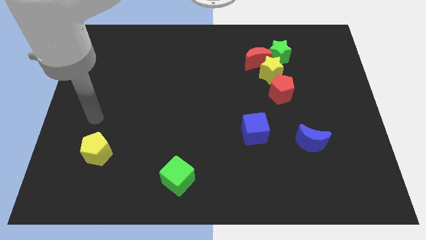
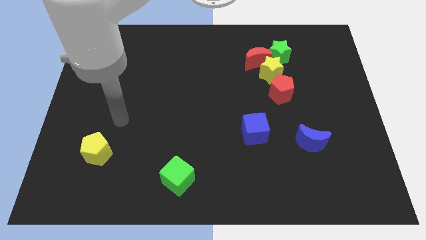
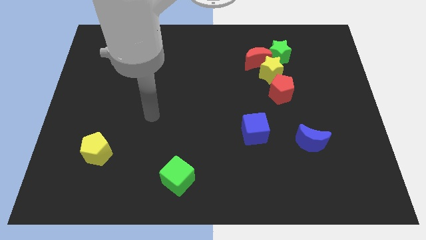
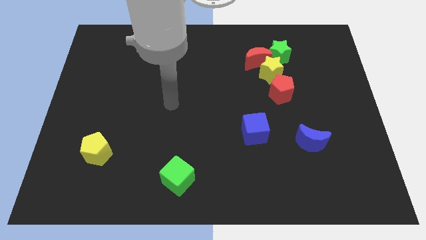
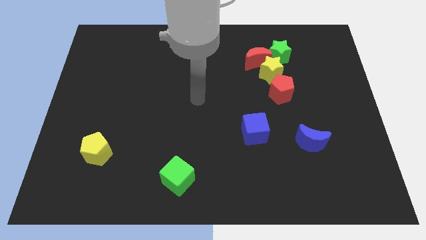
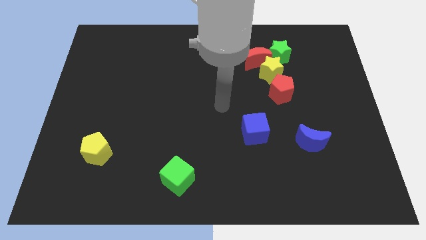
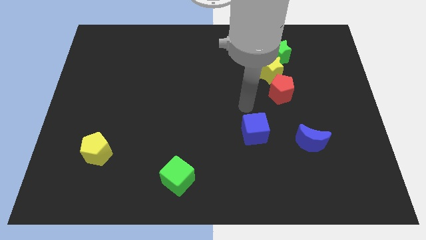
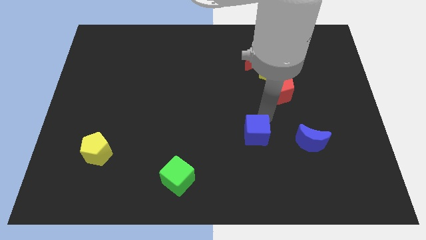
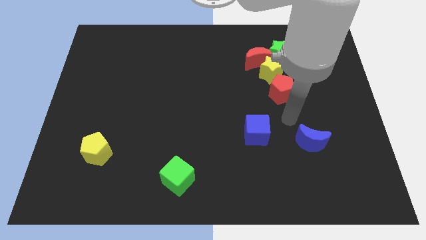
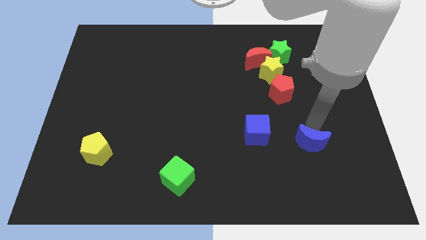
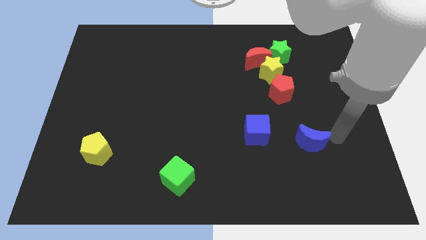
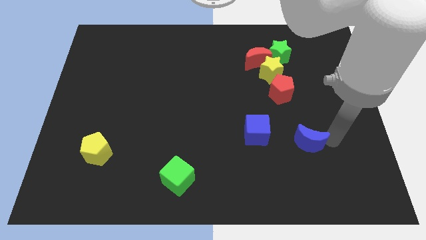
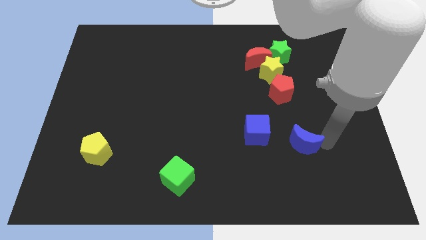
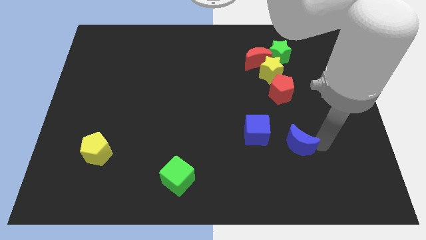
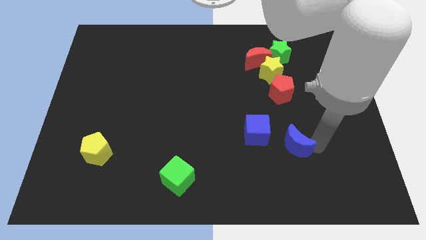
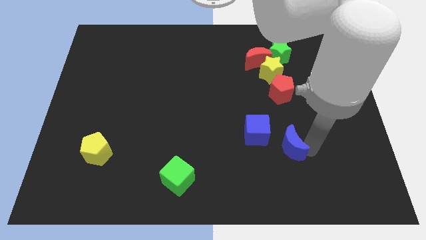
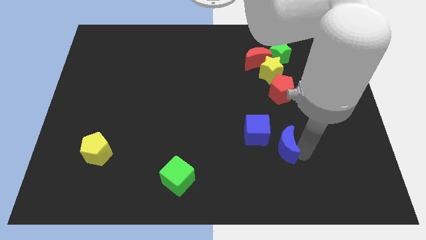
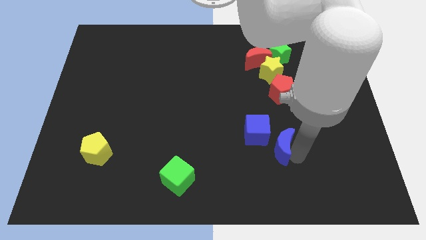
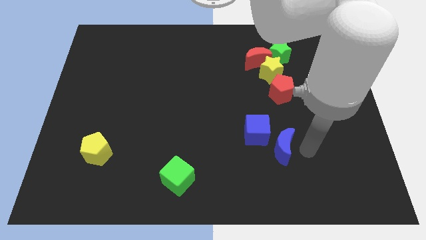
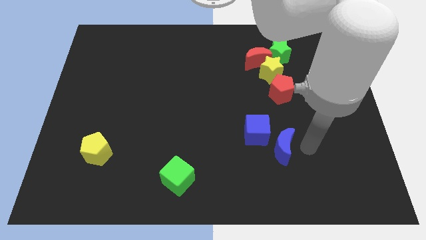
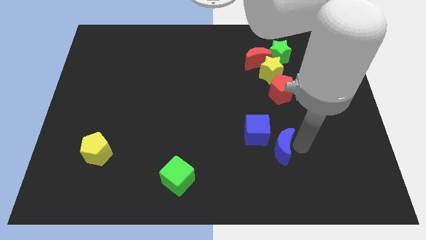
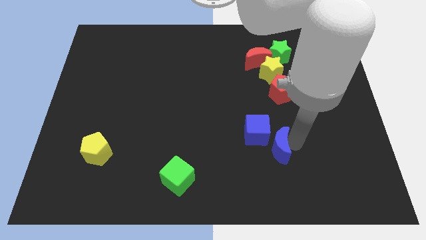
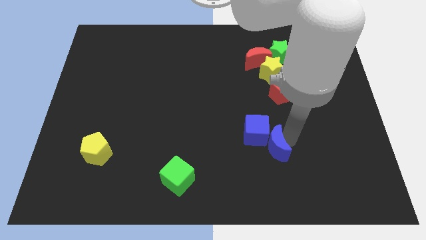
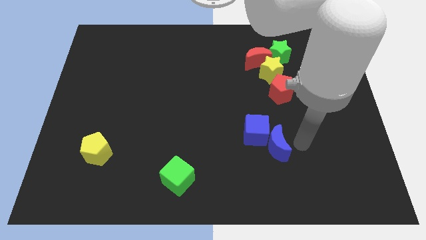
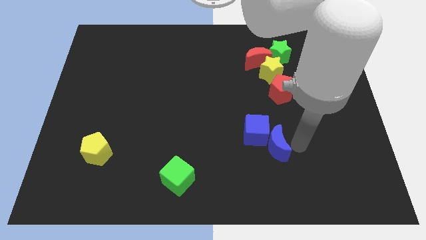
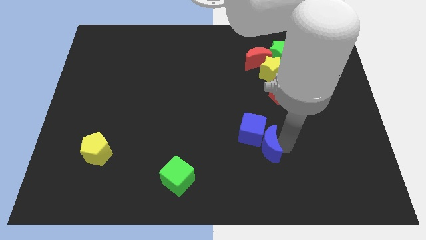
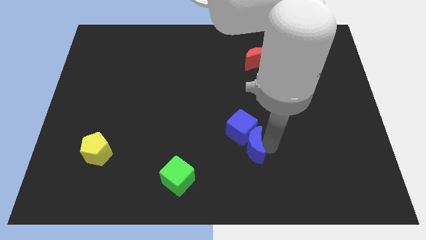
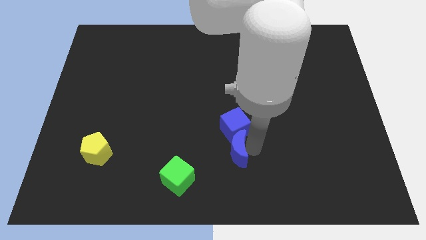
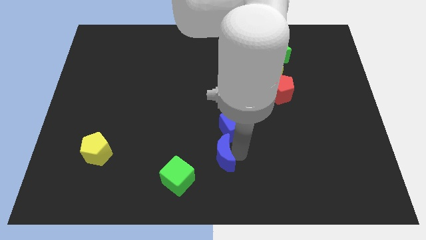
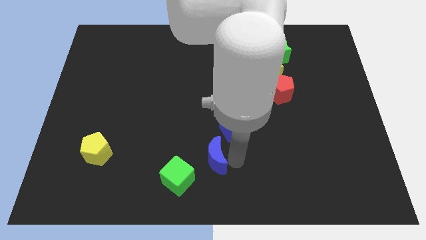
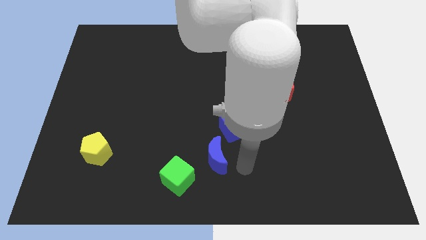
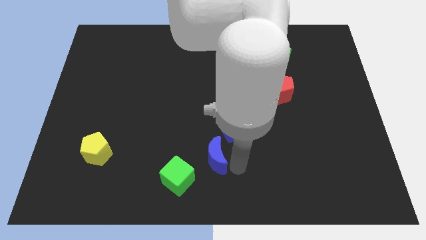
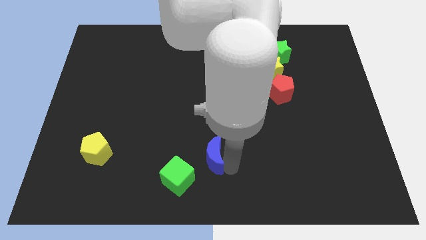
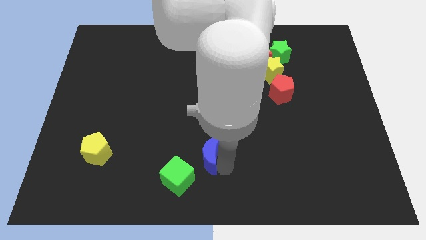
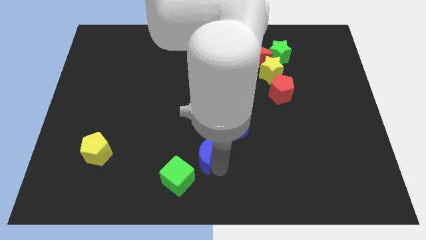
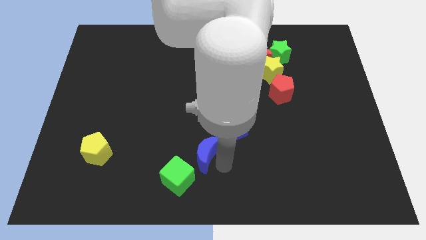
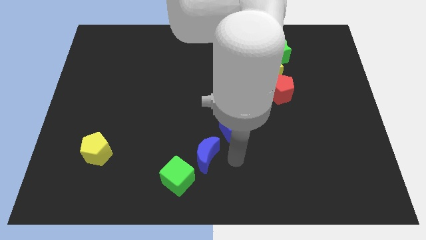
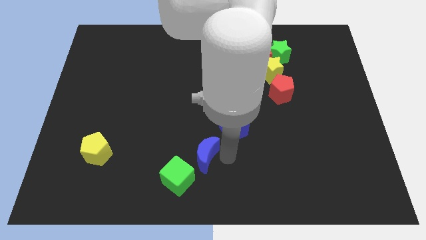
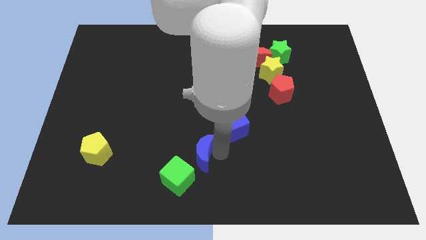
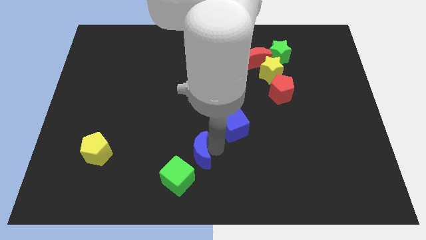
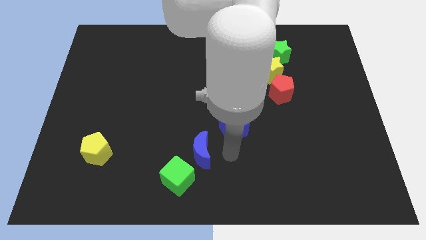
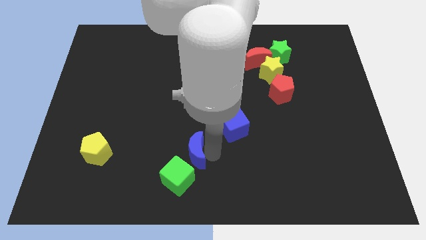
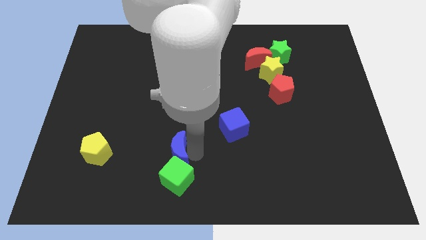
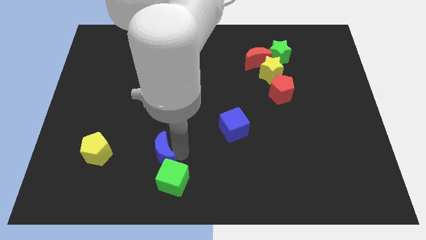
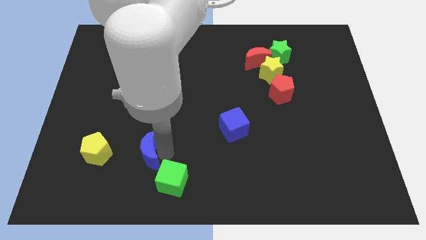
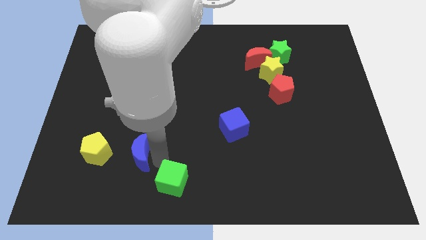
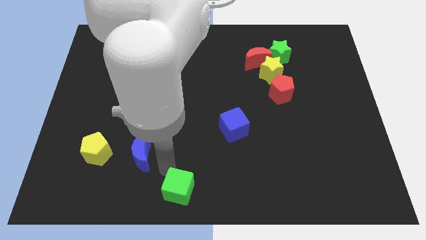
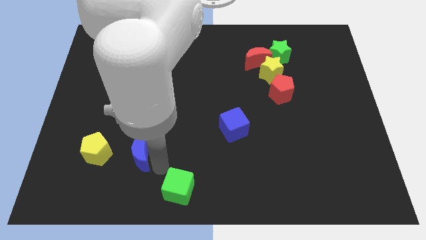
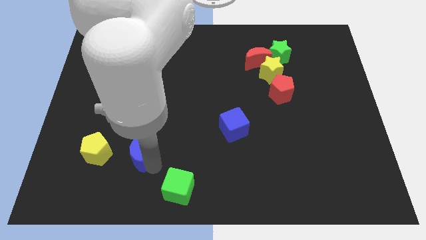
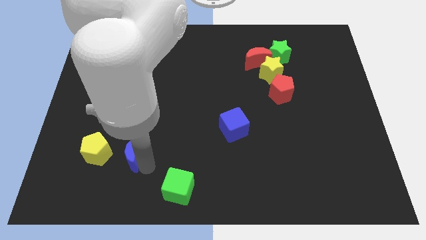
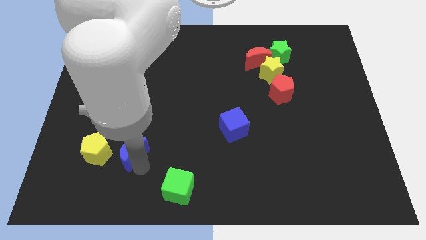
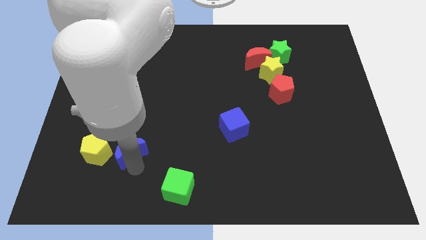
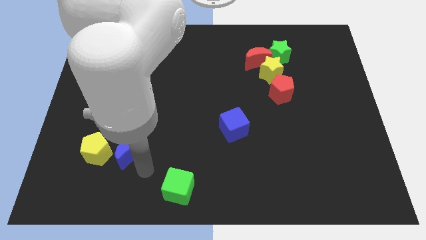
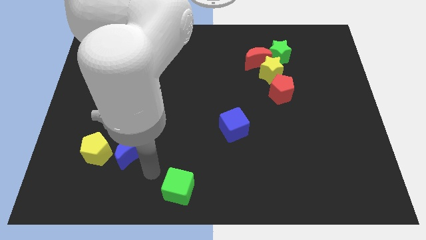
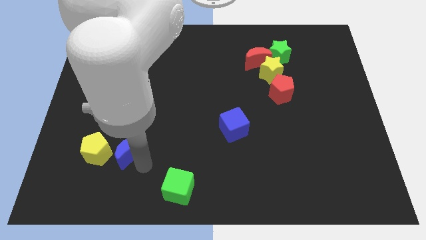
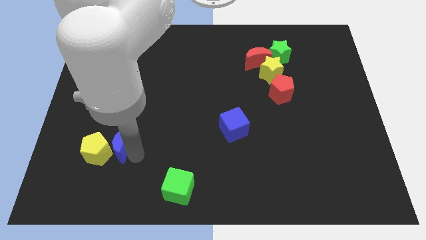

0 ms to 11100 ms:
slide the blue moon close to the yellow pentagon

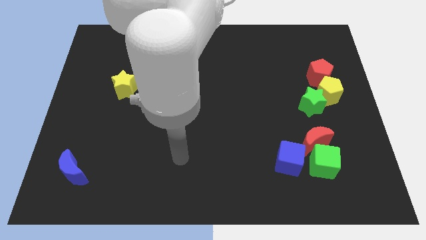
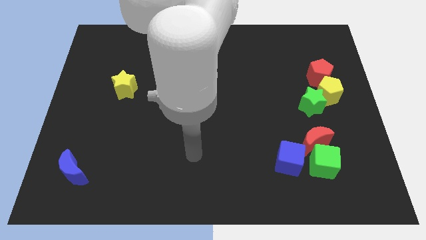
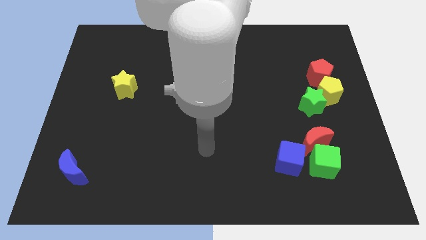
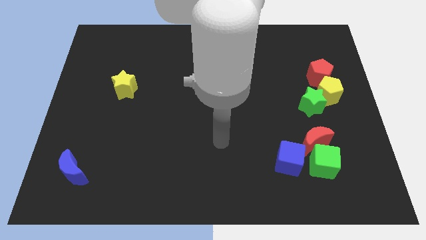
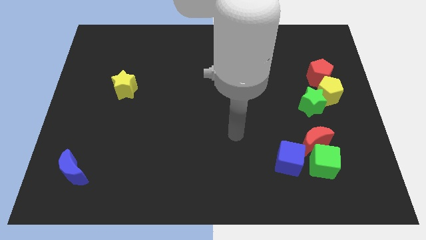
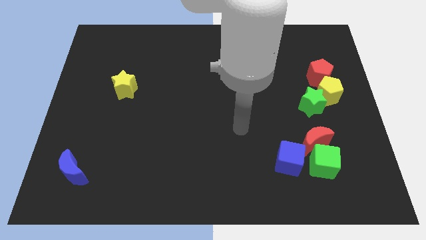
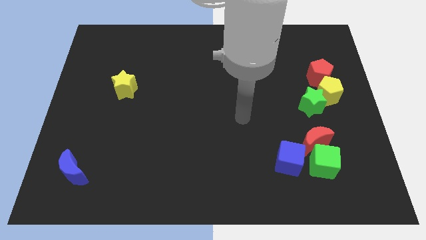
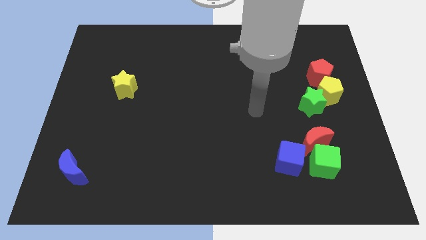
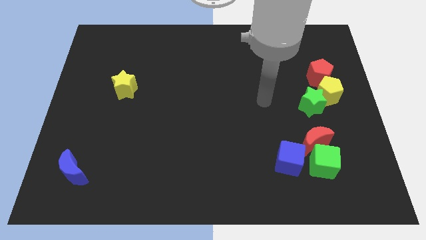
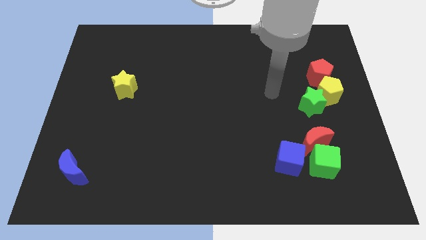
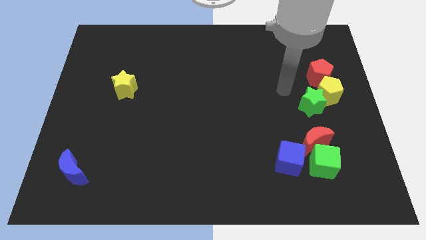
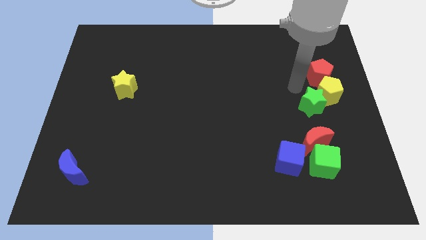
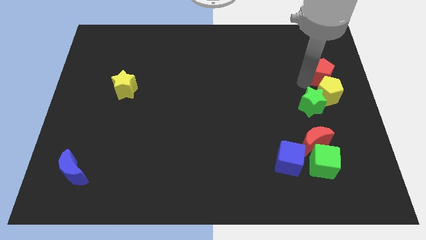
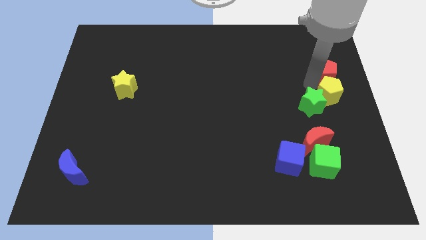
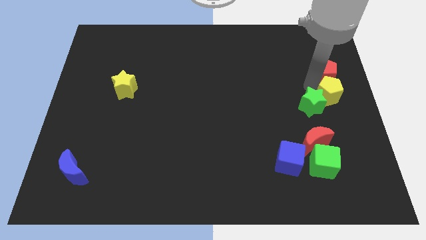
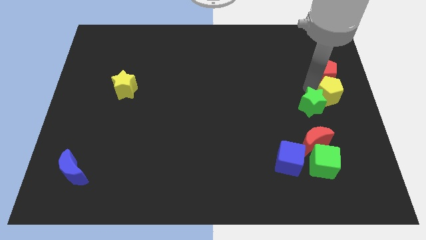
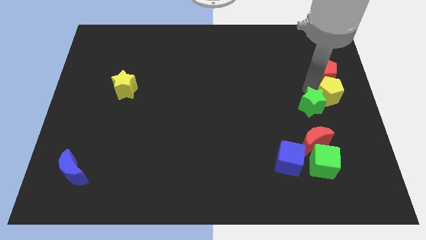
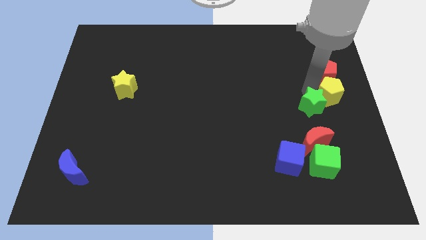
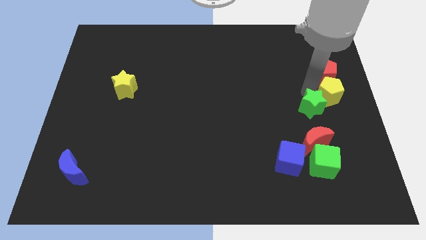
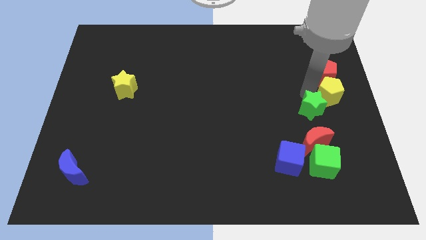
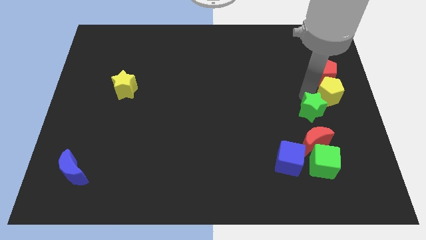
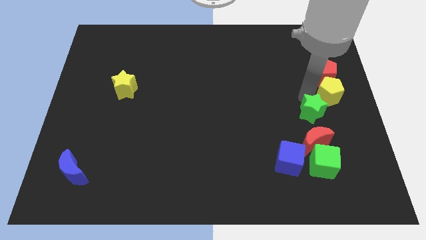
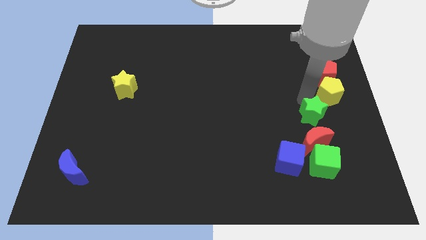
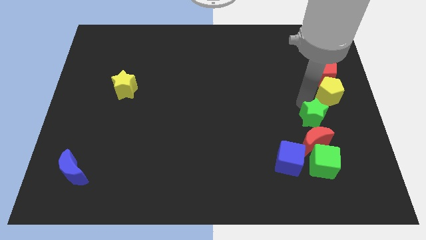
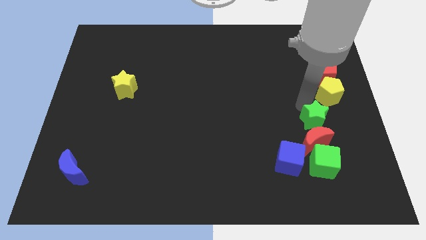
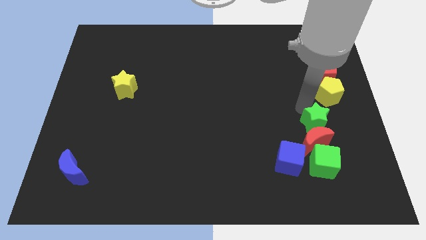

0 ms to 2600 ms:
move the green star to the red moon
